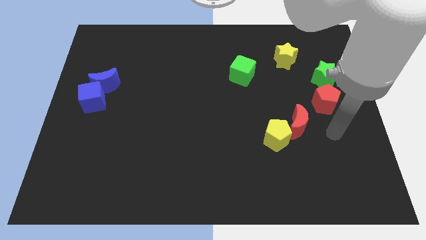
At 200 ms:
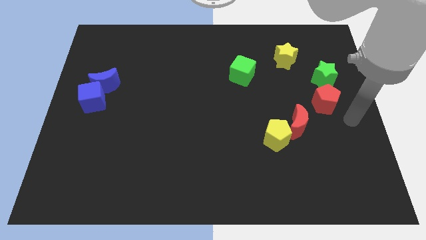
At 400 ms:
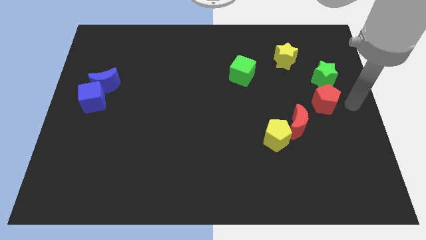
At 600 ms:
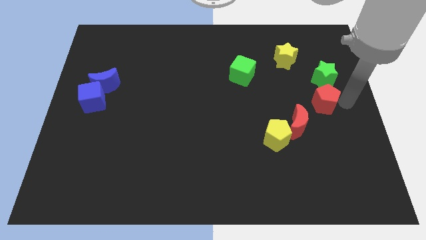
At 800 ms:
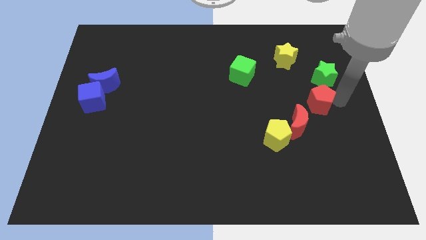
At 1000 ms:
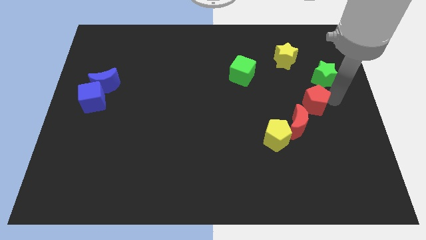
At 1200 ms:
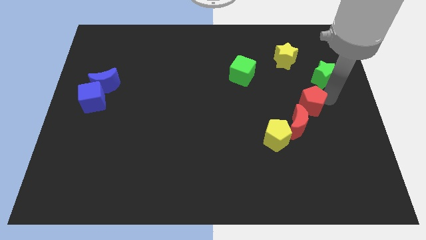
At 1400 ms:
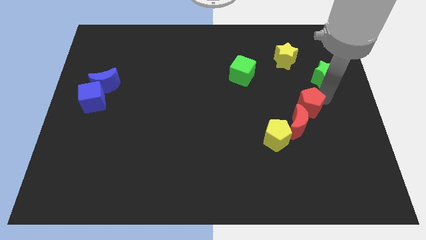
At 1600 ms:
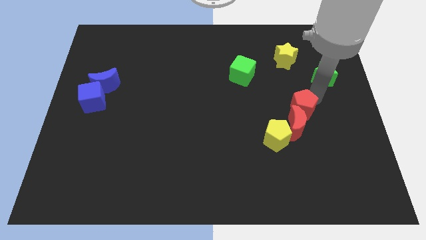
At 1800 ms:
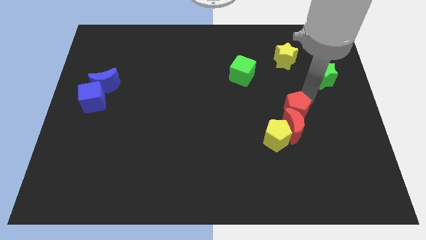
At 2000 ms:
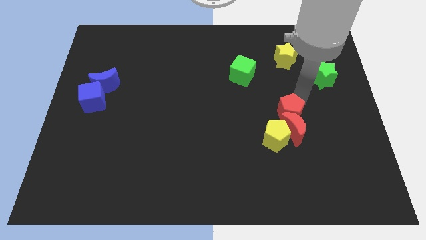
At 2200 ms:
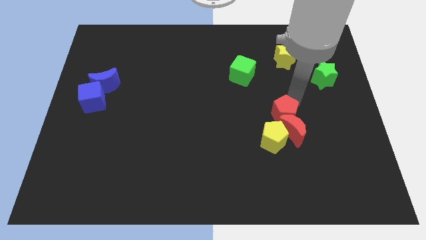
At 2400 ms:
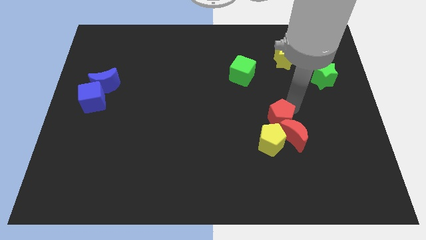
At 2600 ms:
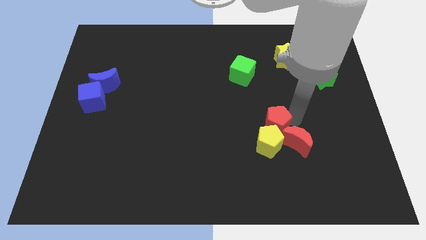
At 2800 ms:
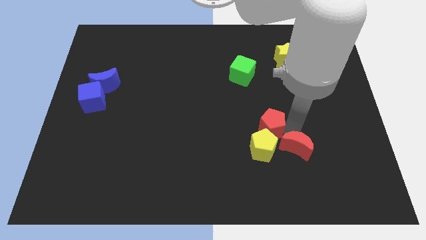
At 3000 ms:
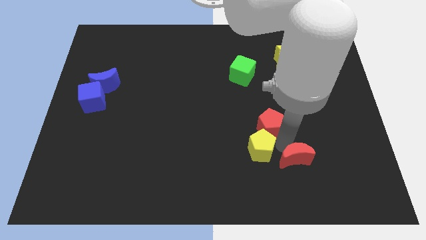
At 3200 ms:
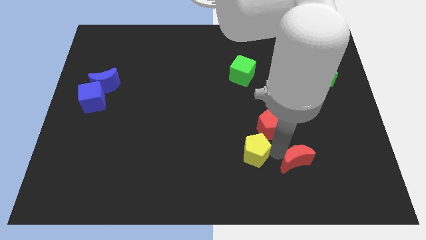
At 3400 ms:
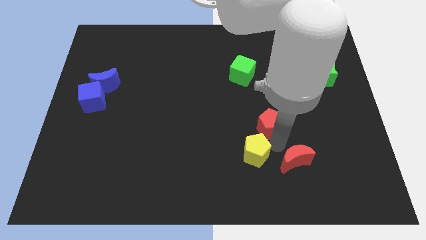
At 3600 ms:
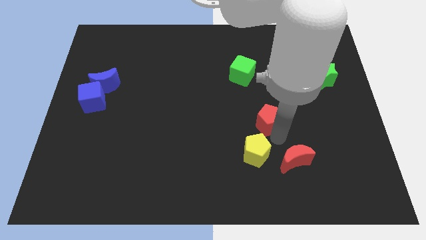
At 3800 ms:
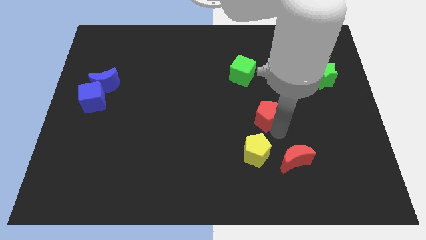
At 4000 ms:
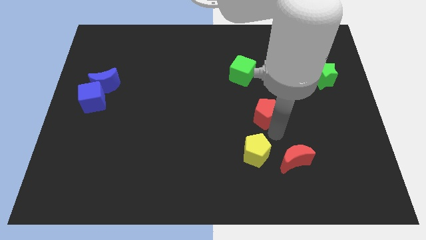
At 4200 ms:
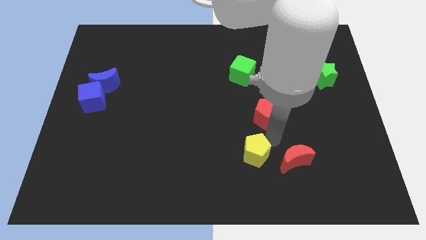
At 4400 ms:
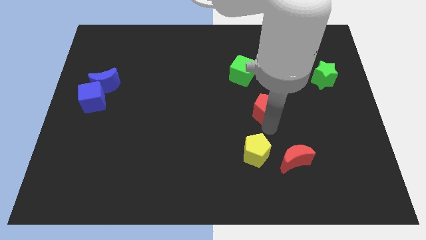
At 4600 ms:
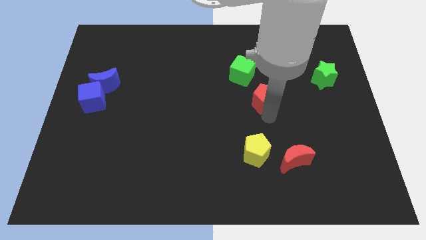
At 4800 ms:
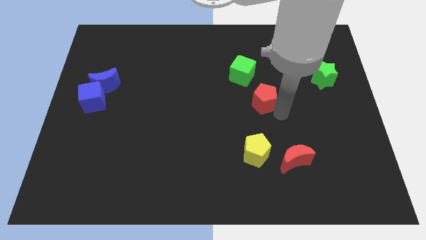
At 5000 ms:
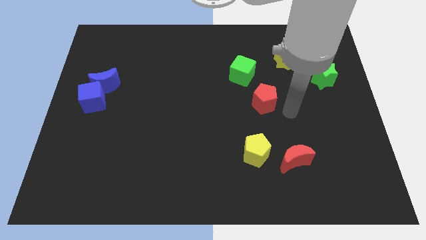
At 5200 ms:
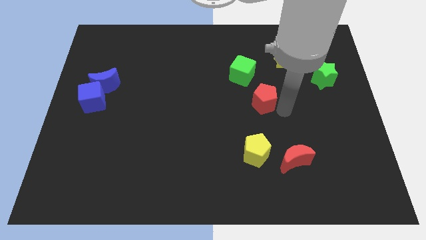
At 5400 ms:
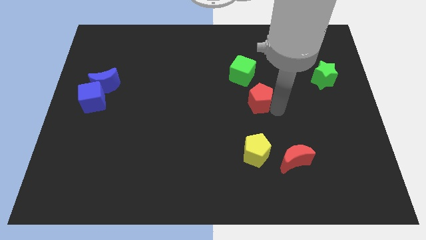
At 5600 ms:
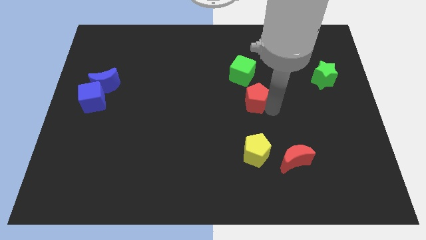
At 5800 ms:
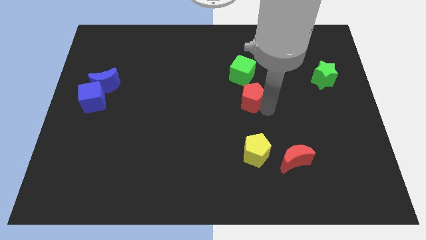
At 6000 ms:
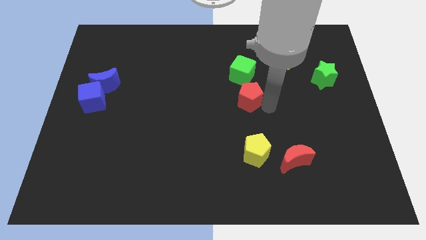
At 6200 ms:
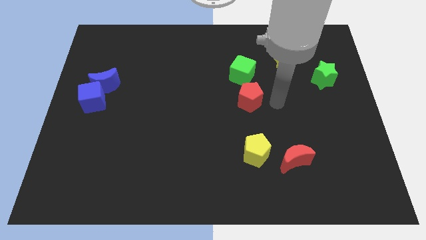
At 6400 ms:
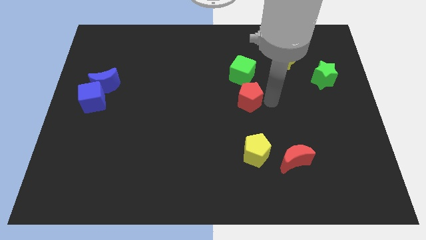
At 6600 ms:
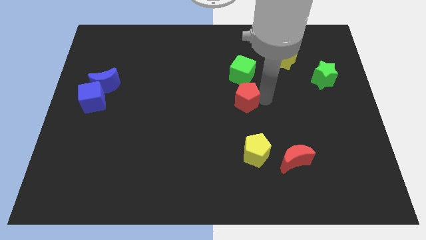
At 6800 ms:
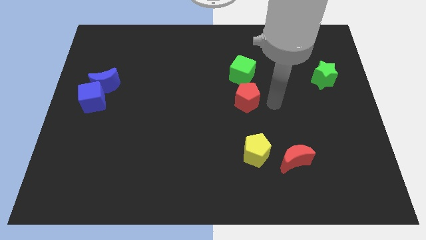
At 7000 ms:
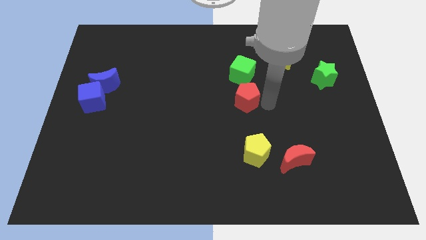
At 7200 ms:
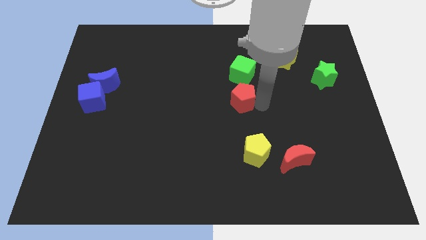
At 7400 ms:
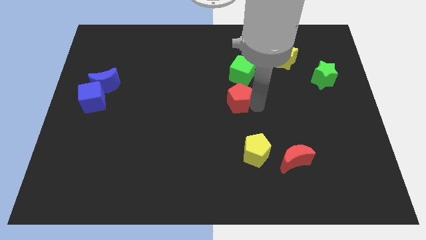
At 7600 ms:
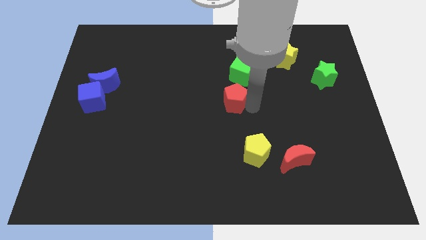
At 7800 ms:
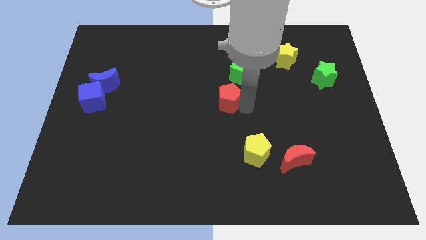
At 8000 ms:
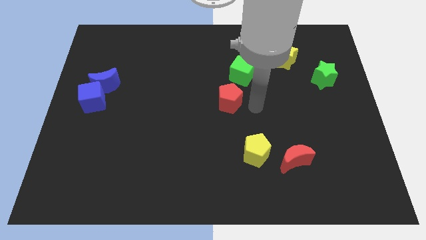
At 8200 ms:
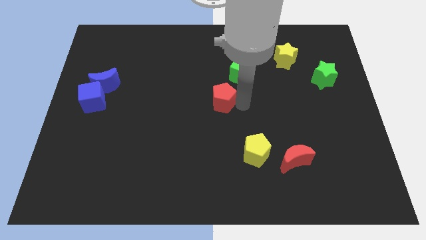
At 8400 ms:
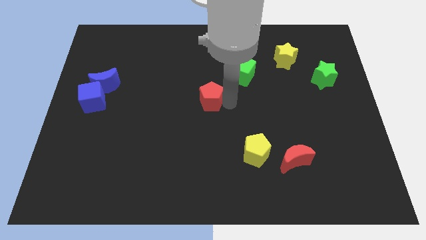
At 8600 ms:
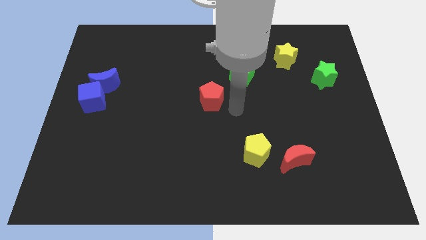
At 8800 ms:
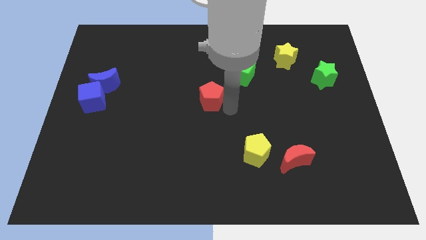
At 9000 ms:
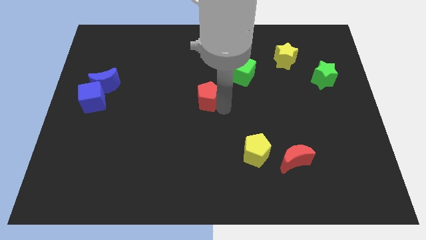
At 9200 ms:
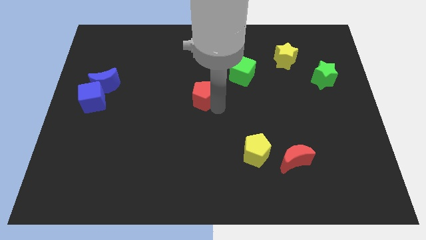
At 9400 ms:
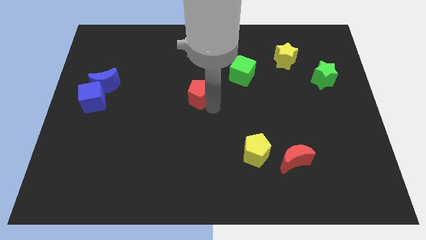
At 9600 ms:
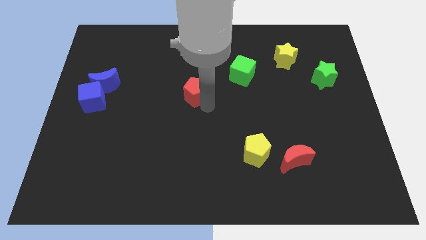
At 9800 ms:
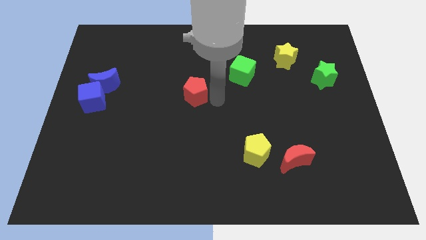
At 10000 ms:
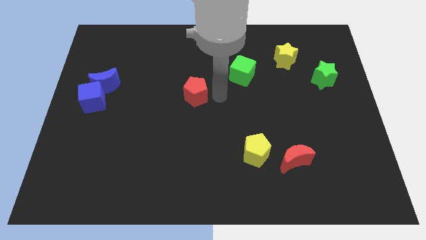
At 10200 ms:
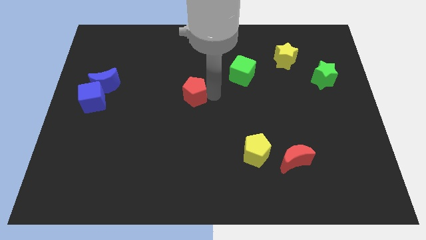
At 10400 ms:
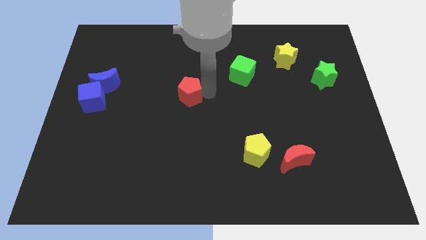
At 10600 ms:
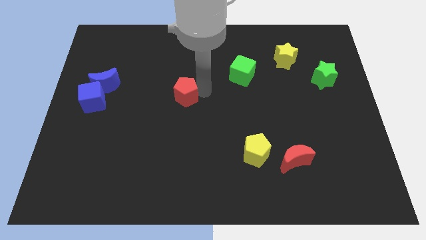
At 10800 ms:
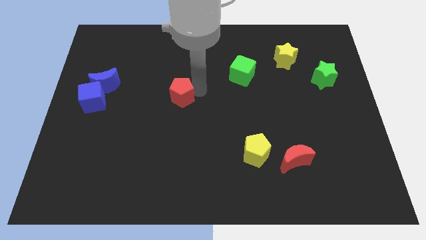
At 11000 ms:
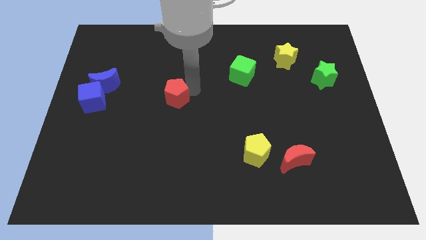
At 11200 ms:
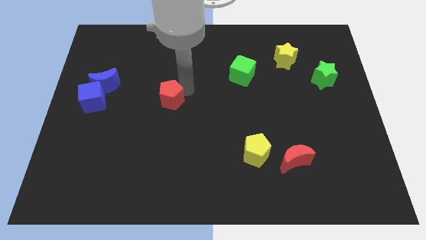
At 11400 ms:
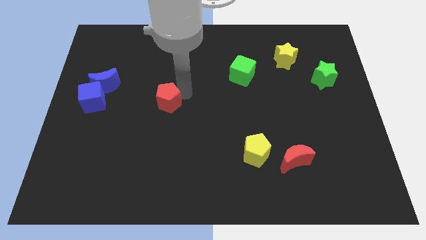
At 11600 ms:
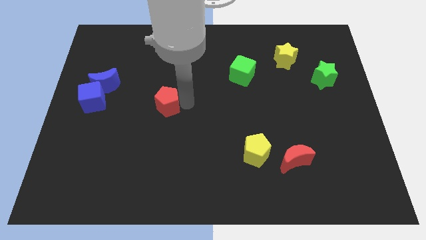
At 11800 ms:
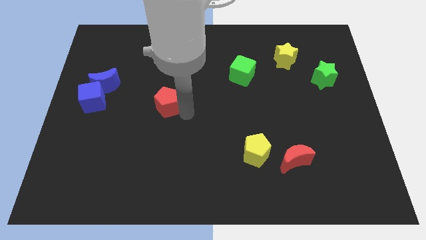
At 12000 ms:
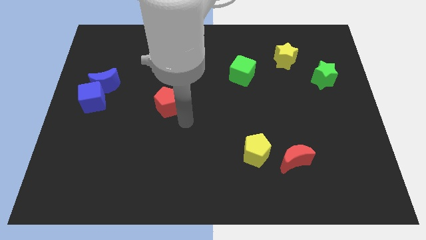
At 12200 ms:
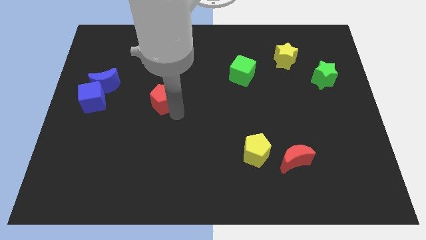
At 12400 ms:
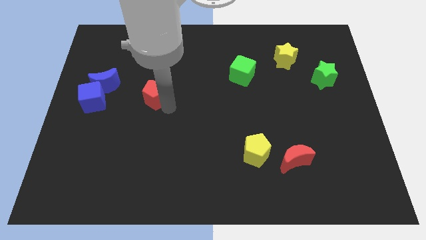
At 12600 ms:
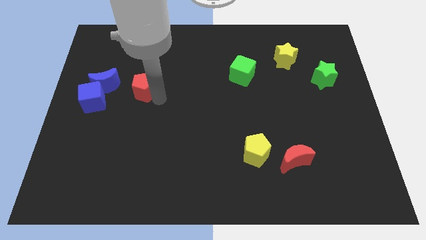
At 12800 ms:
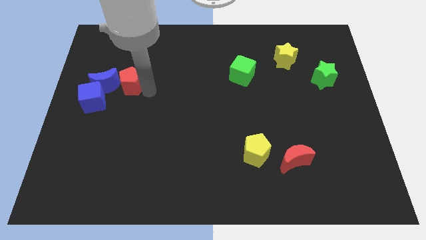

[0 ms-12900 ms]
push the red pentagon next to the blue moon

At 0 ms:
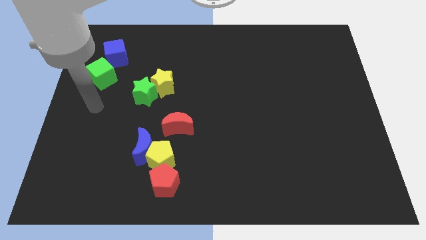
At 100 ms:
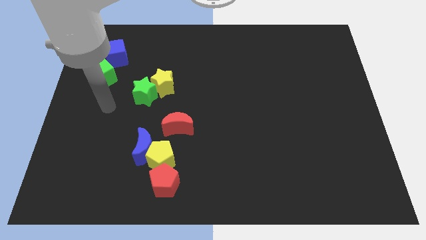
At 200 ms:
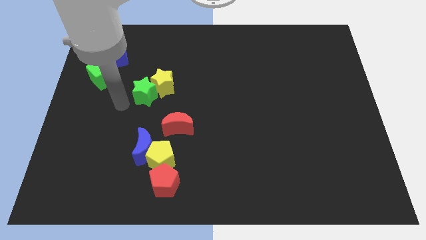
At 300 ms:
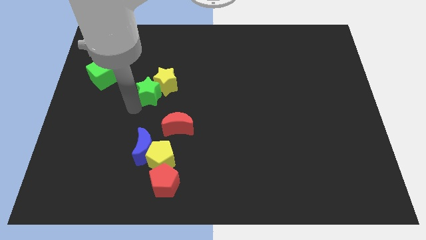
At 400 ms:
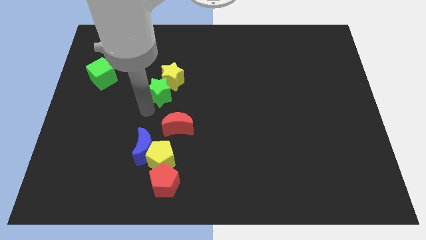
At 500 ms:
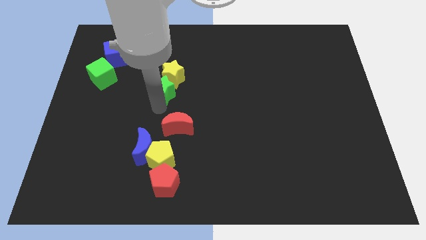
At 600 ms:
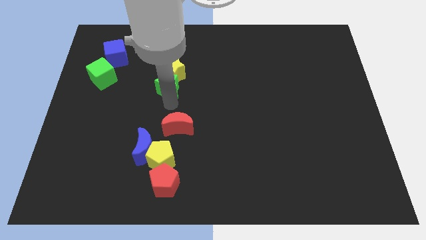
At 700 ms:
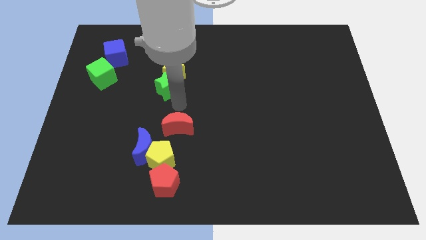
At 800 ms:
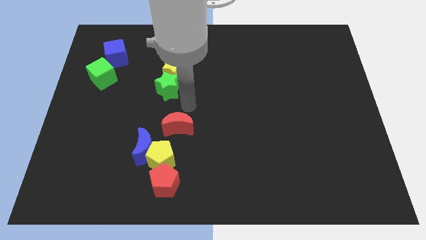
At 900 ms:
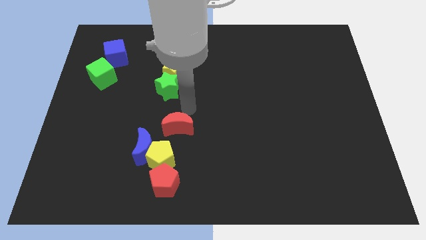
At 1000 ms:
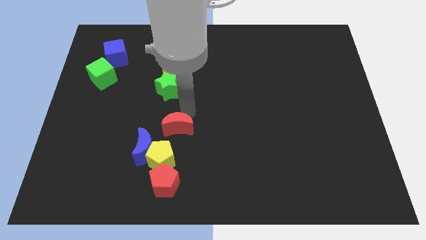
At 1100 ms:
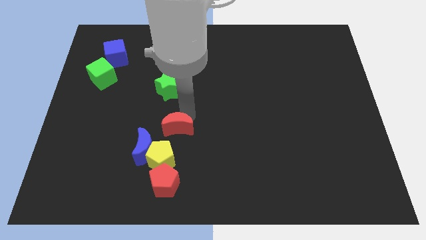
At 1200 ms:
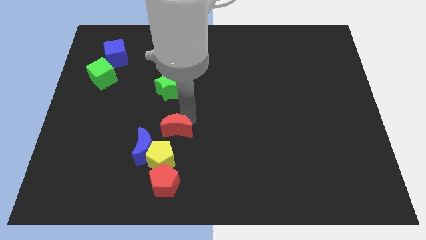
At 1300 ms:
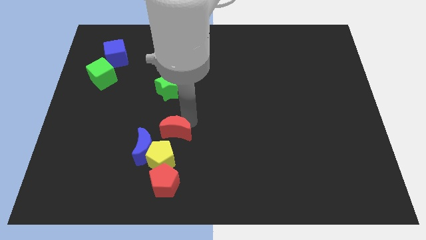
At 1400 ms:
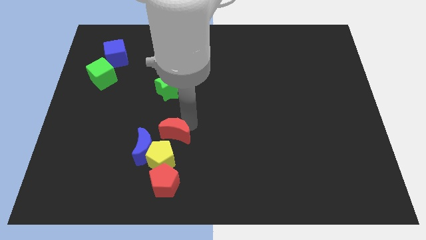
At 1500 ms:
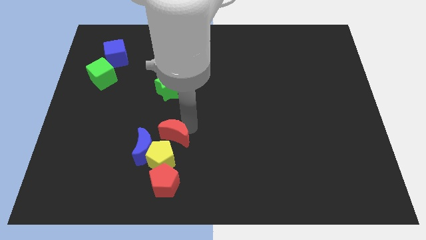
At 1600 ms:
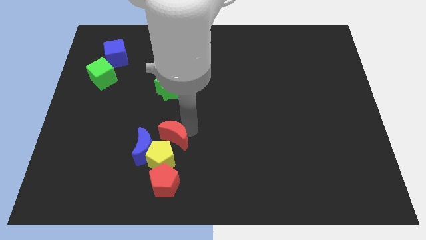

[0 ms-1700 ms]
put the red moon towards the yellow pentagon
